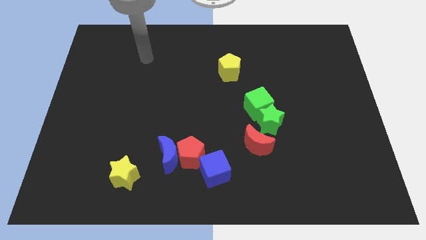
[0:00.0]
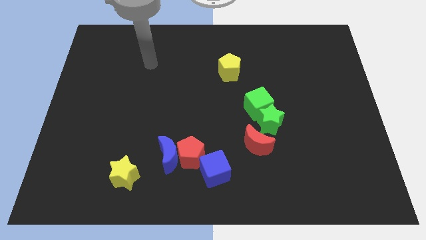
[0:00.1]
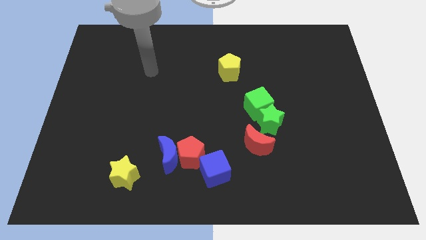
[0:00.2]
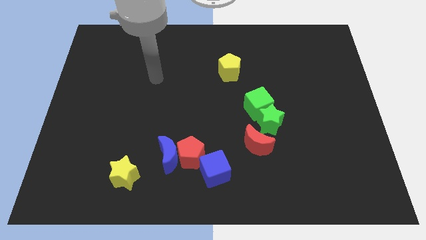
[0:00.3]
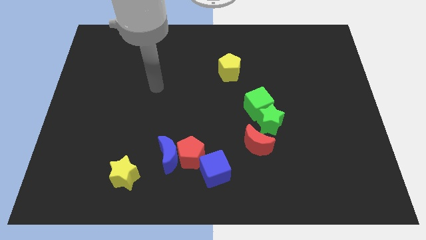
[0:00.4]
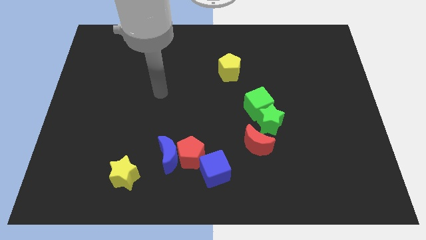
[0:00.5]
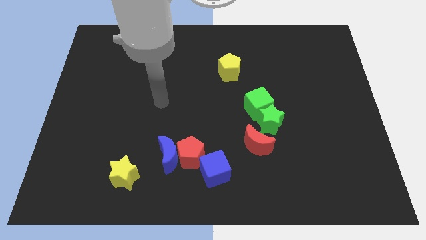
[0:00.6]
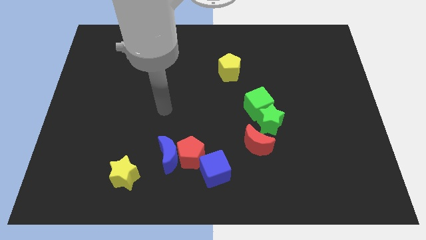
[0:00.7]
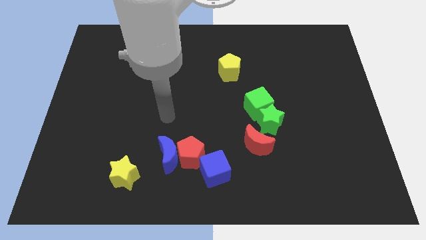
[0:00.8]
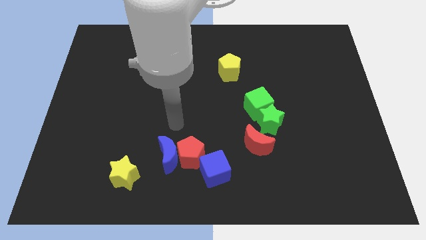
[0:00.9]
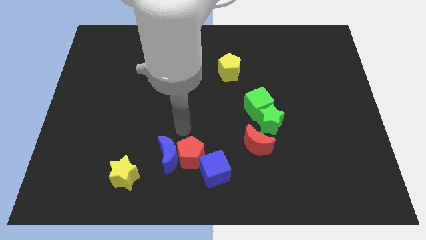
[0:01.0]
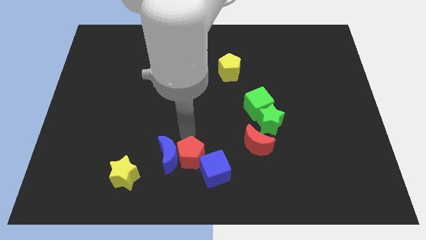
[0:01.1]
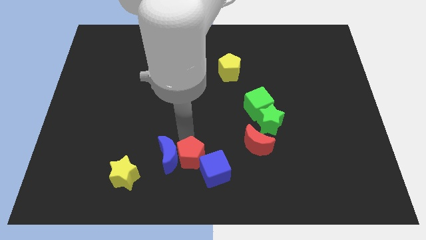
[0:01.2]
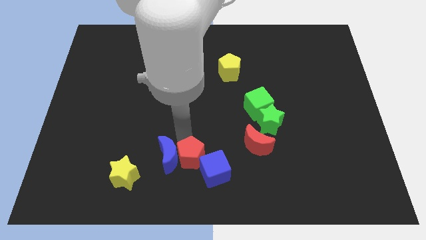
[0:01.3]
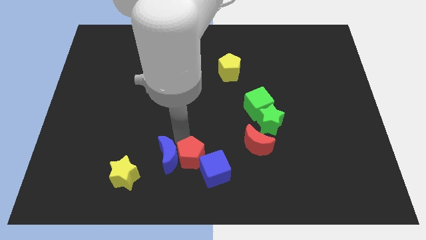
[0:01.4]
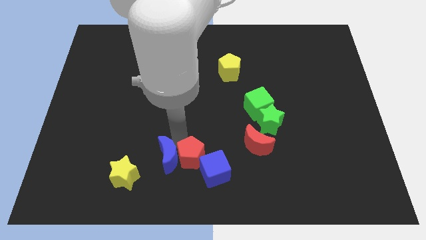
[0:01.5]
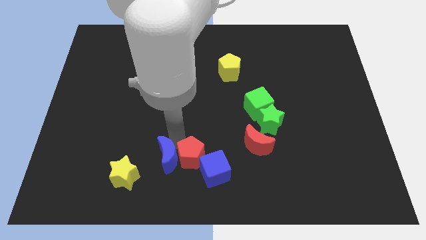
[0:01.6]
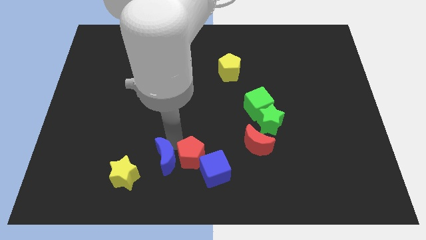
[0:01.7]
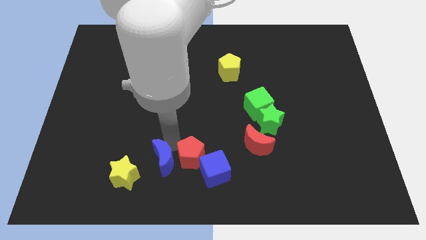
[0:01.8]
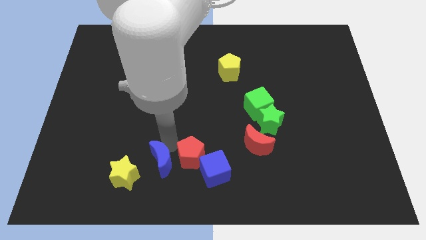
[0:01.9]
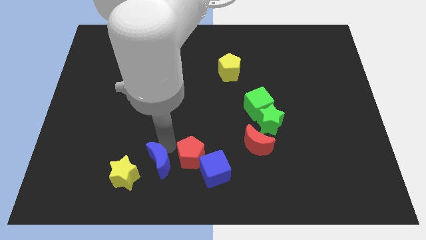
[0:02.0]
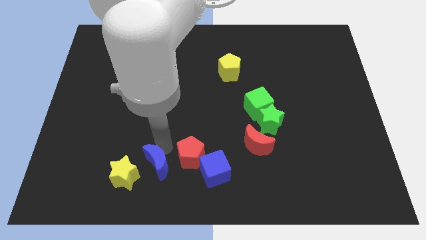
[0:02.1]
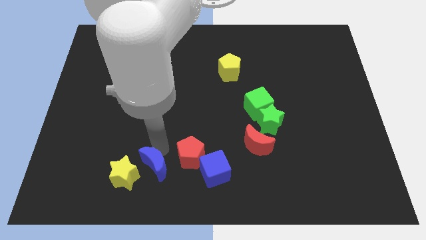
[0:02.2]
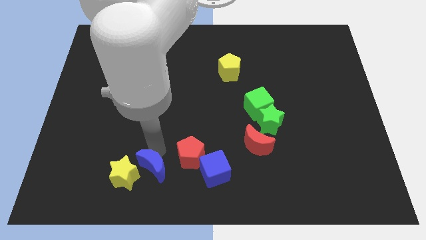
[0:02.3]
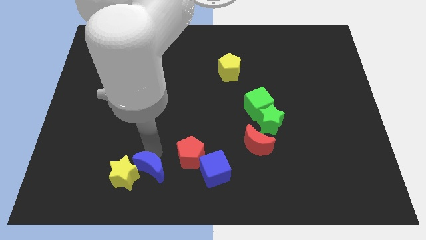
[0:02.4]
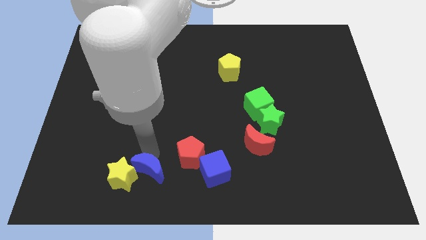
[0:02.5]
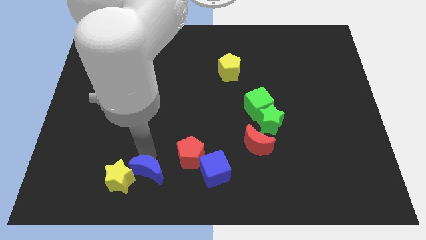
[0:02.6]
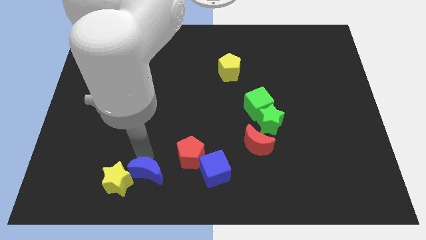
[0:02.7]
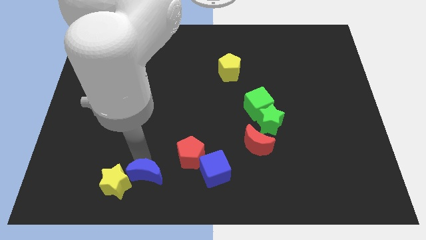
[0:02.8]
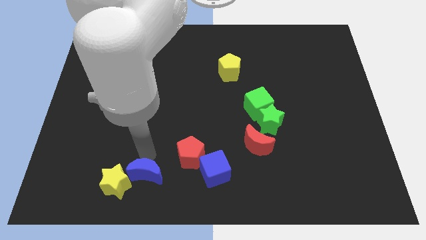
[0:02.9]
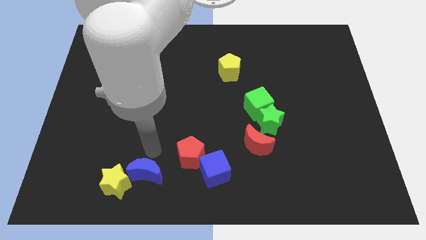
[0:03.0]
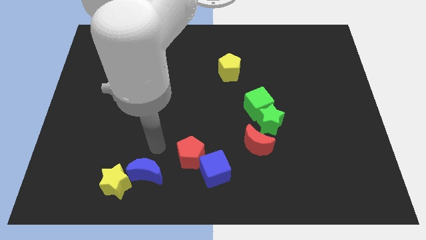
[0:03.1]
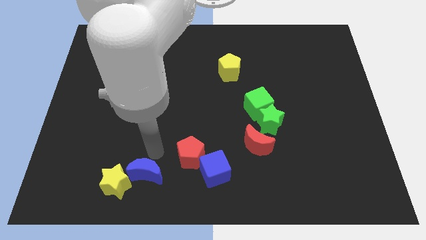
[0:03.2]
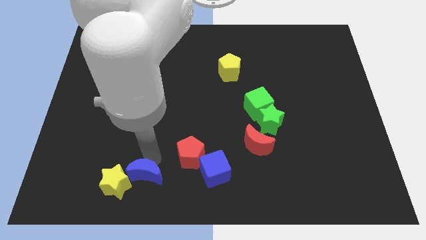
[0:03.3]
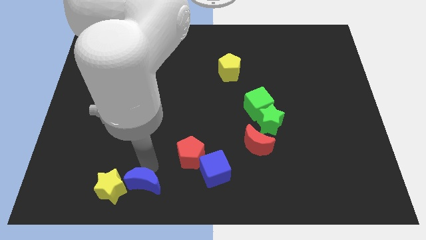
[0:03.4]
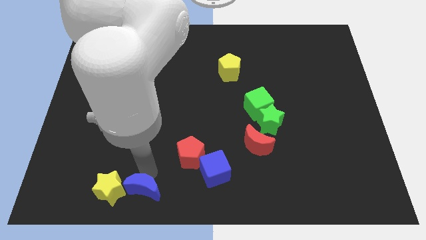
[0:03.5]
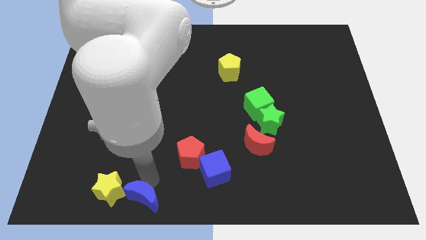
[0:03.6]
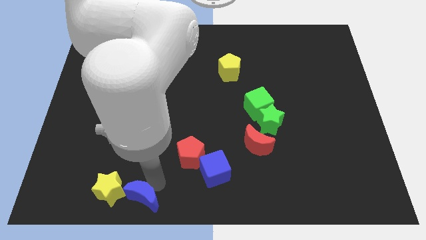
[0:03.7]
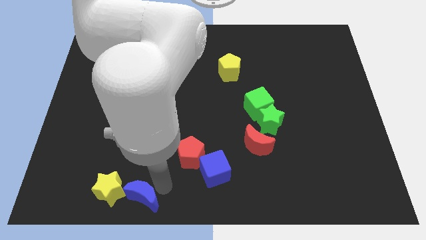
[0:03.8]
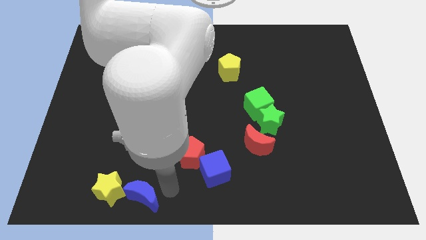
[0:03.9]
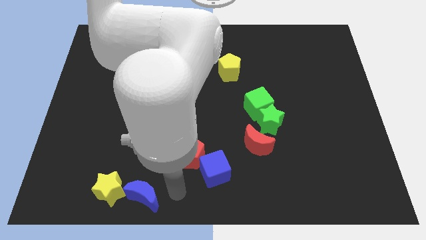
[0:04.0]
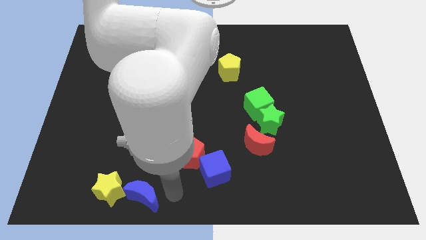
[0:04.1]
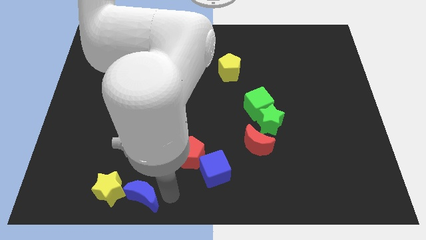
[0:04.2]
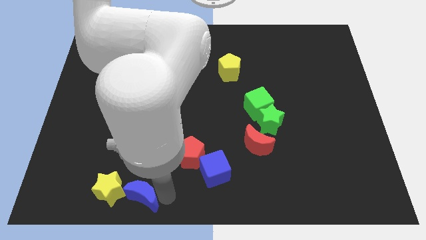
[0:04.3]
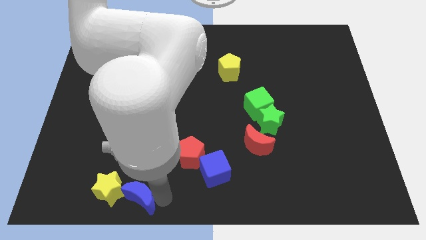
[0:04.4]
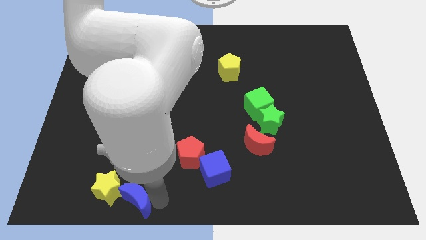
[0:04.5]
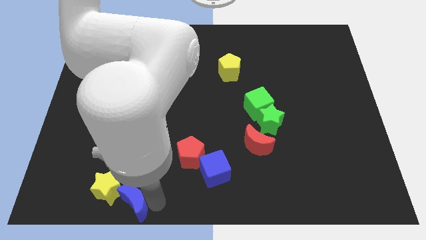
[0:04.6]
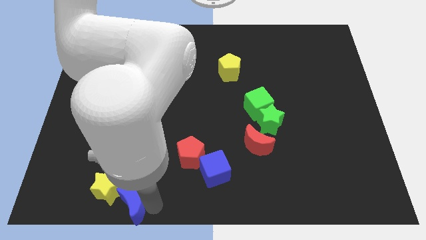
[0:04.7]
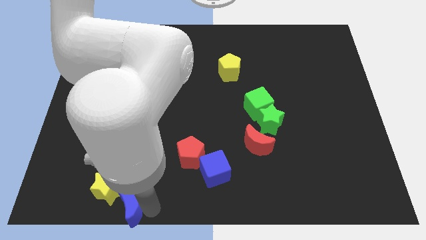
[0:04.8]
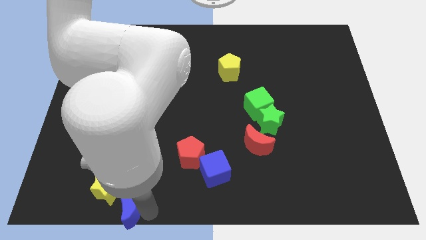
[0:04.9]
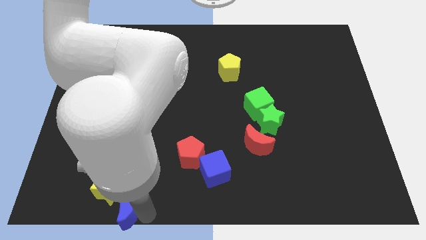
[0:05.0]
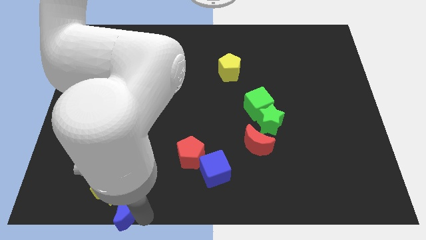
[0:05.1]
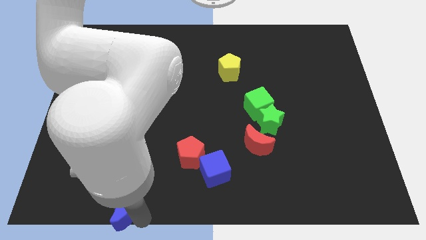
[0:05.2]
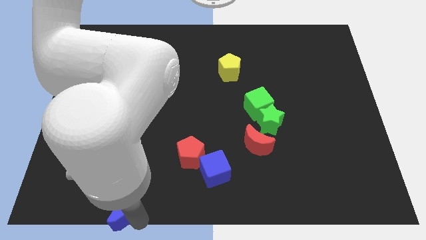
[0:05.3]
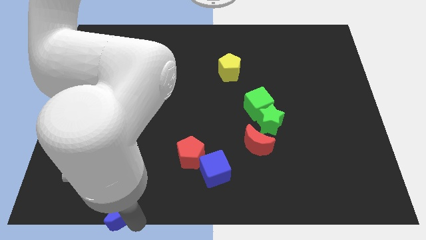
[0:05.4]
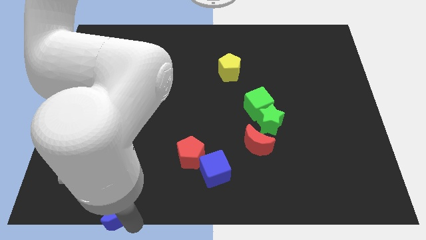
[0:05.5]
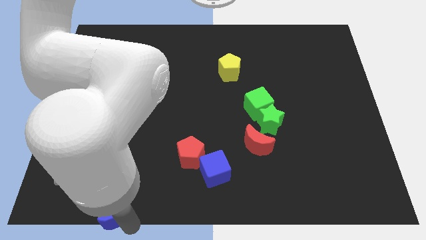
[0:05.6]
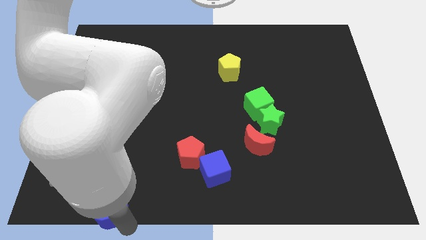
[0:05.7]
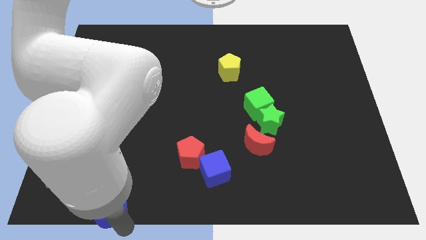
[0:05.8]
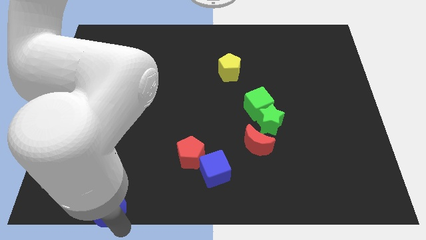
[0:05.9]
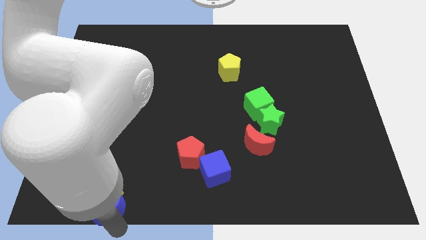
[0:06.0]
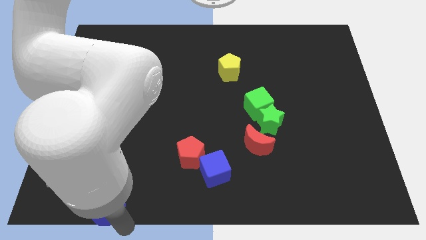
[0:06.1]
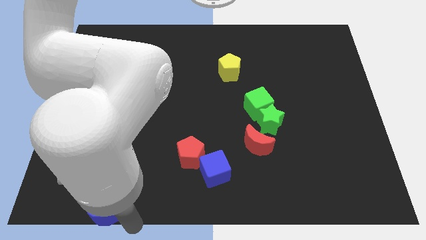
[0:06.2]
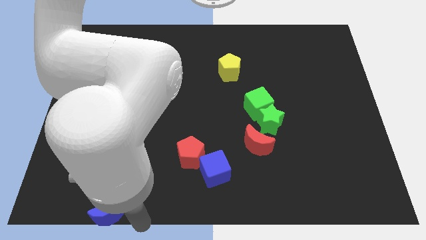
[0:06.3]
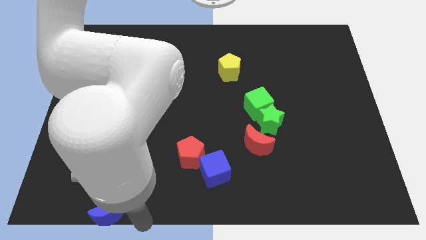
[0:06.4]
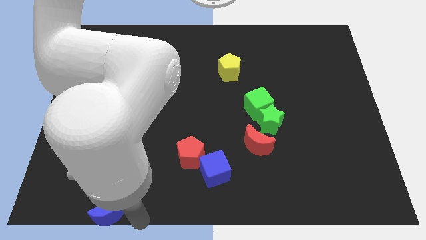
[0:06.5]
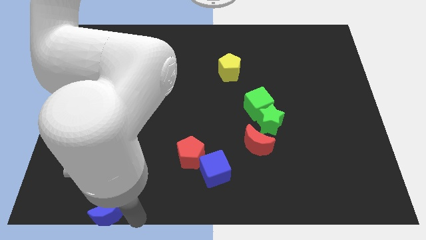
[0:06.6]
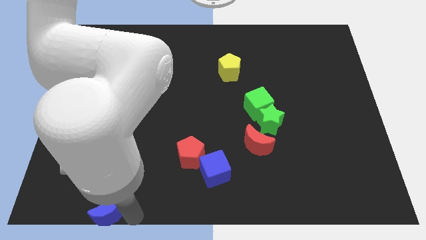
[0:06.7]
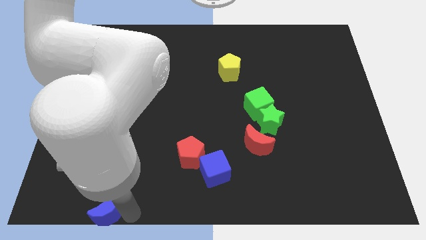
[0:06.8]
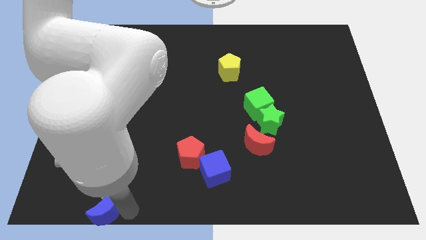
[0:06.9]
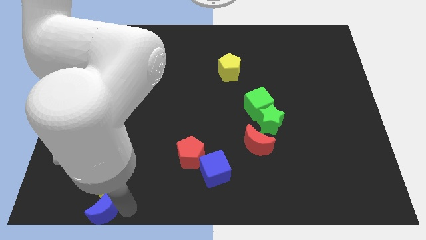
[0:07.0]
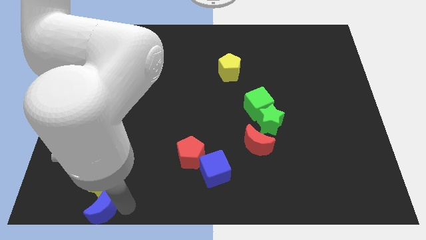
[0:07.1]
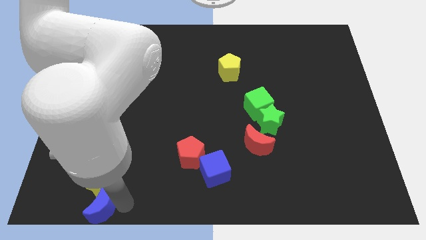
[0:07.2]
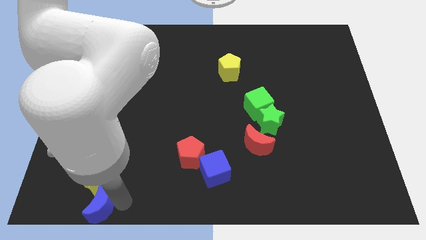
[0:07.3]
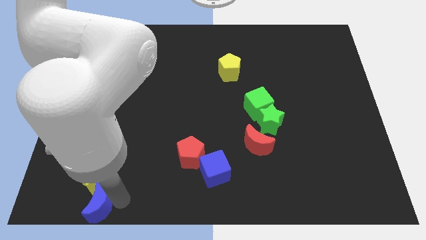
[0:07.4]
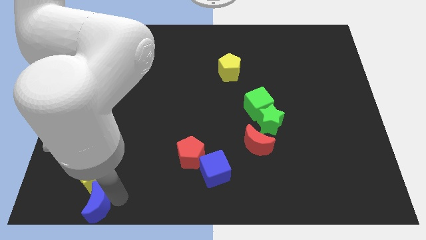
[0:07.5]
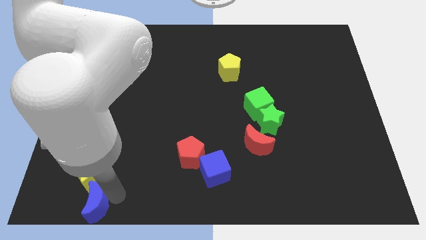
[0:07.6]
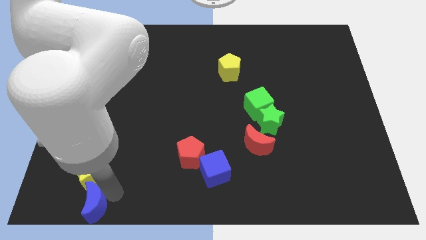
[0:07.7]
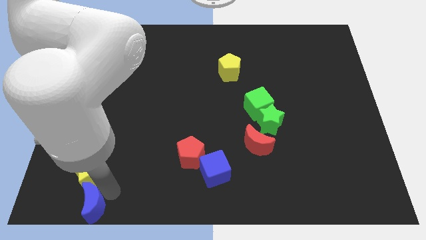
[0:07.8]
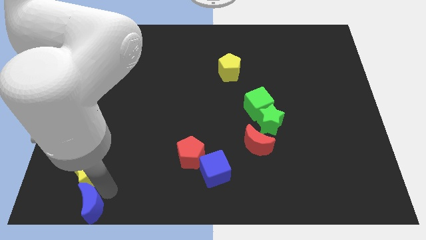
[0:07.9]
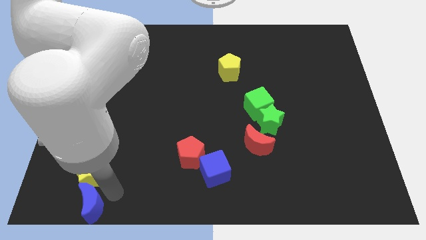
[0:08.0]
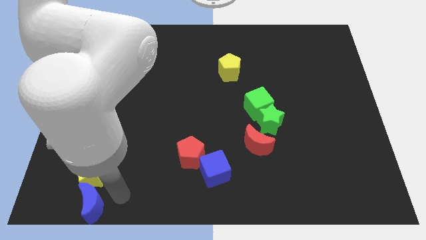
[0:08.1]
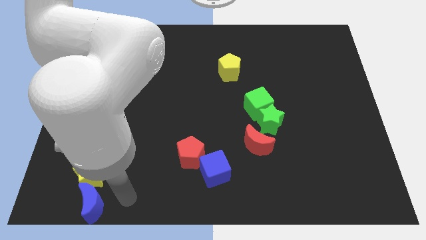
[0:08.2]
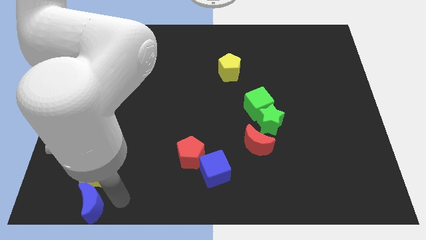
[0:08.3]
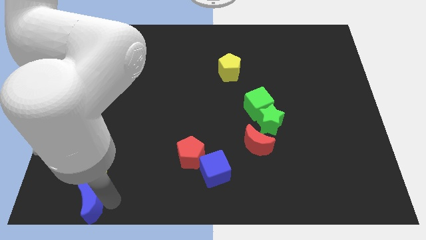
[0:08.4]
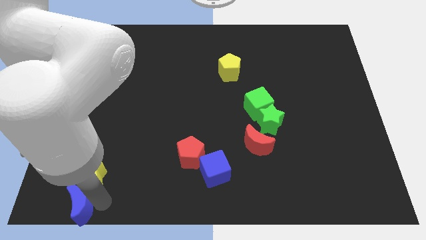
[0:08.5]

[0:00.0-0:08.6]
move the blue moon to the bottom left of the board
